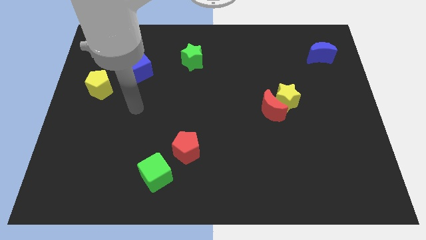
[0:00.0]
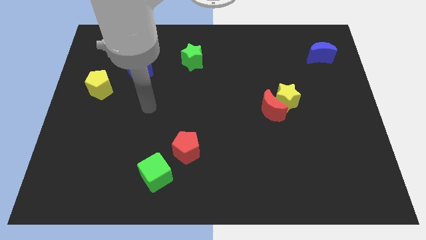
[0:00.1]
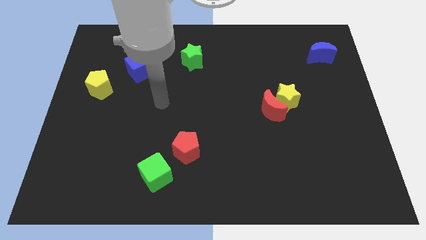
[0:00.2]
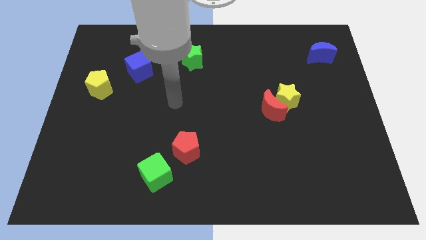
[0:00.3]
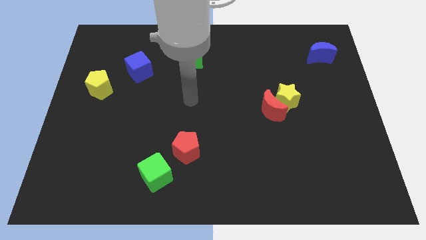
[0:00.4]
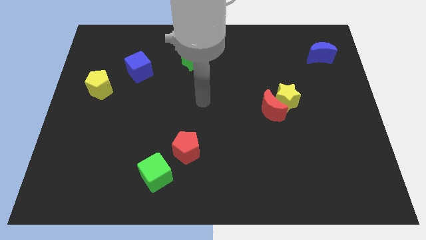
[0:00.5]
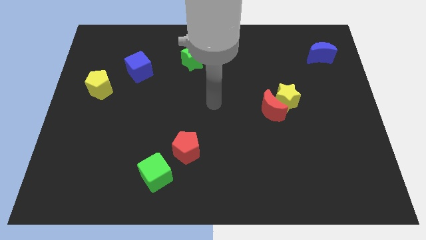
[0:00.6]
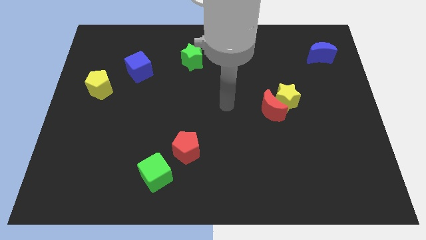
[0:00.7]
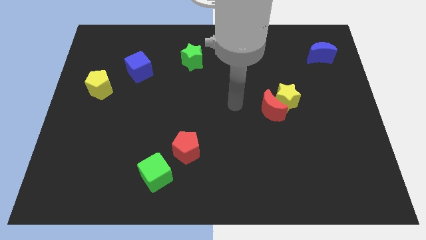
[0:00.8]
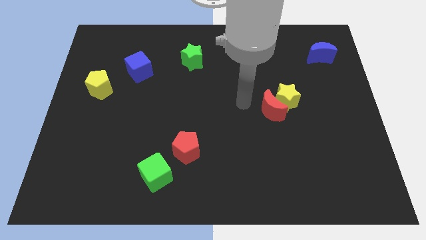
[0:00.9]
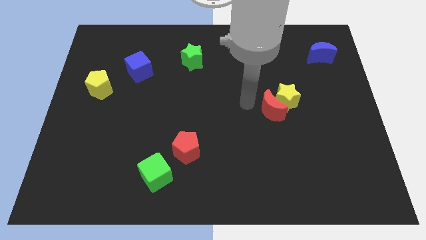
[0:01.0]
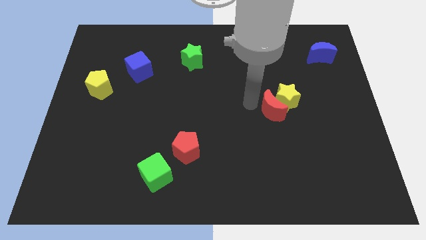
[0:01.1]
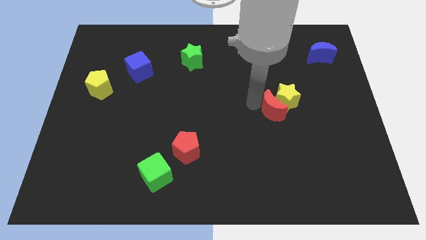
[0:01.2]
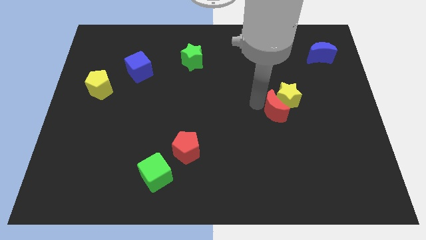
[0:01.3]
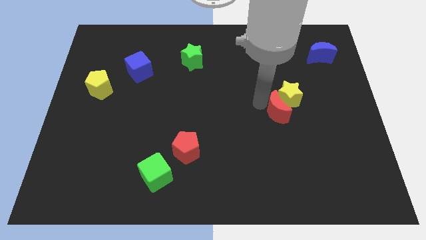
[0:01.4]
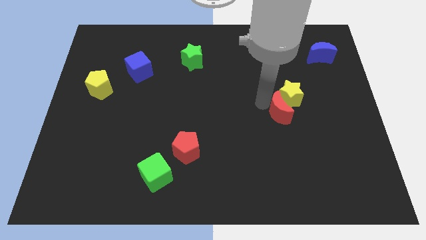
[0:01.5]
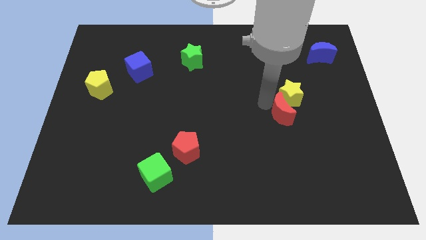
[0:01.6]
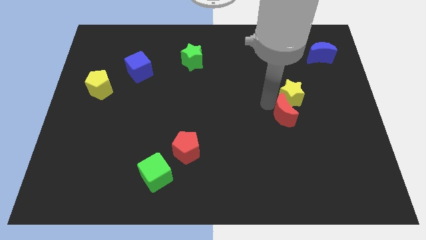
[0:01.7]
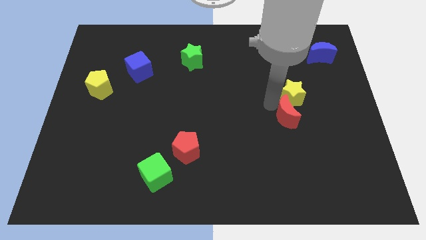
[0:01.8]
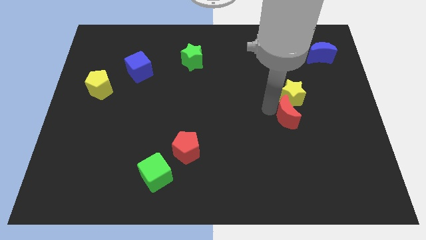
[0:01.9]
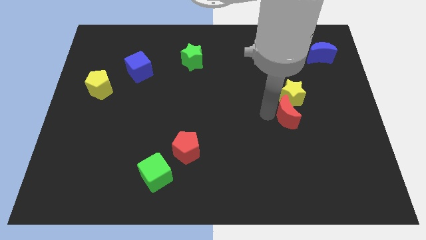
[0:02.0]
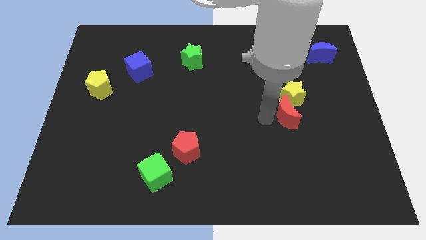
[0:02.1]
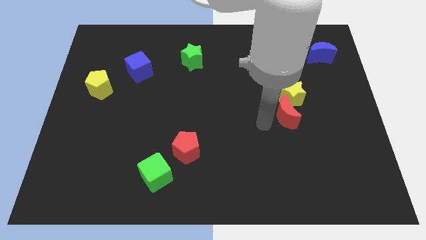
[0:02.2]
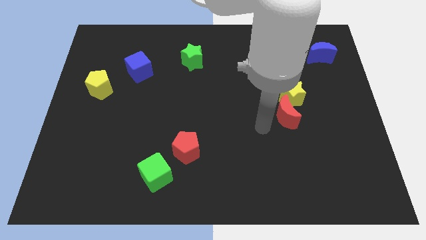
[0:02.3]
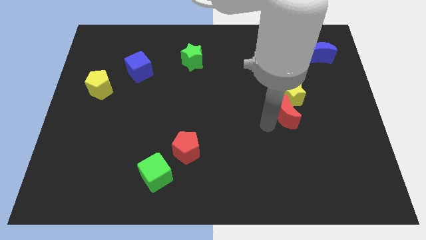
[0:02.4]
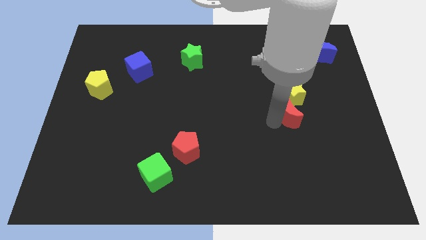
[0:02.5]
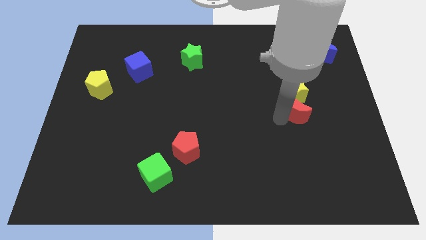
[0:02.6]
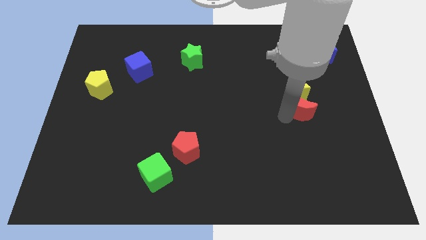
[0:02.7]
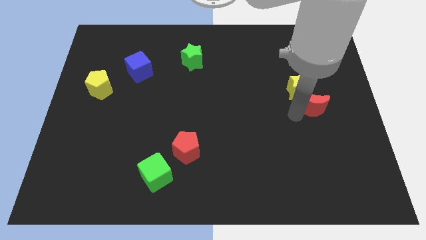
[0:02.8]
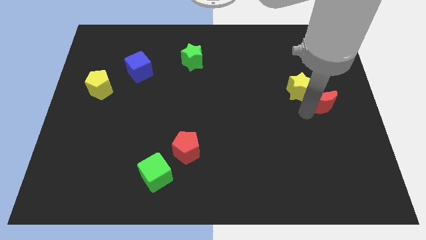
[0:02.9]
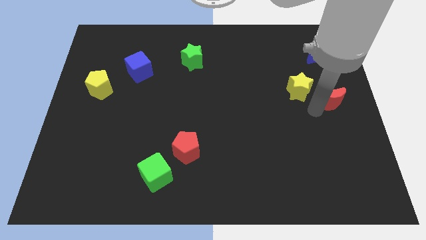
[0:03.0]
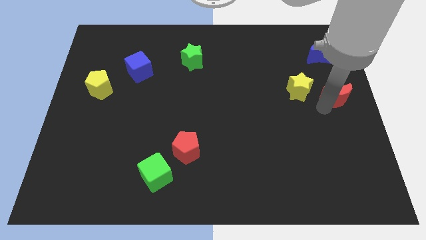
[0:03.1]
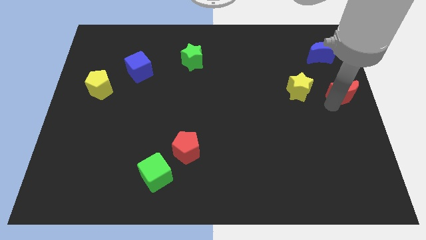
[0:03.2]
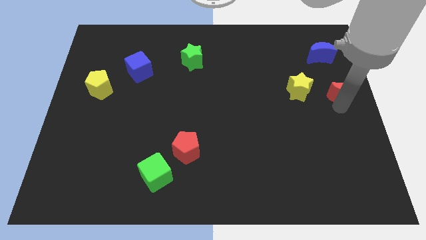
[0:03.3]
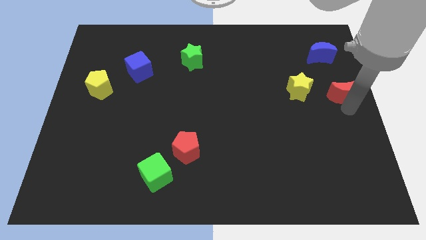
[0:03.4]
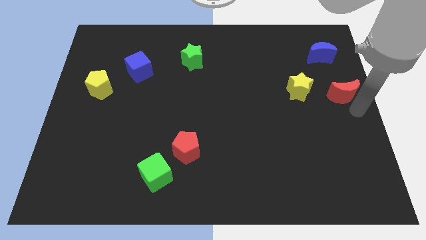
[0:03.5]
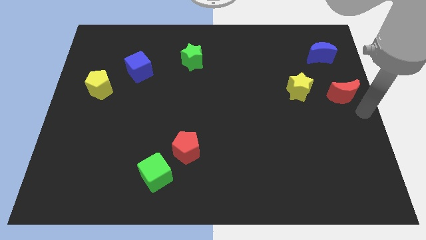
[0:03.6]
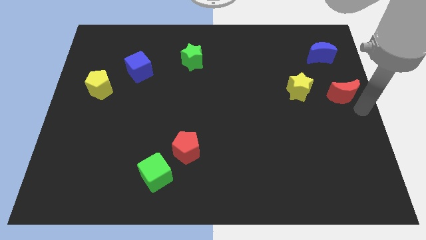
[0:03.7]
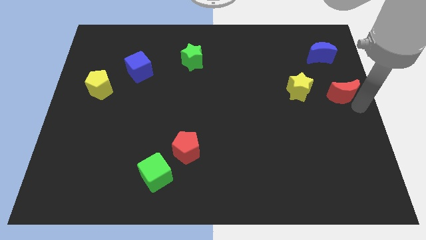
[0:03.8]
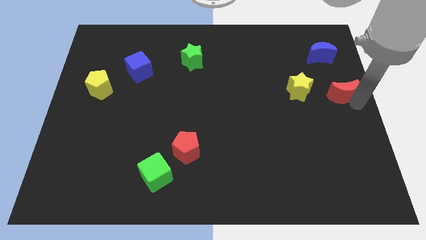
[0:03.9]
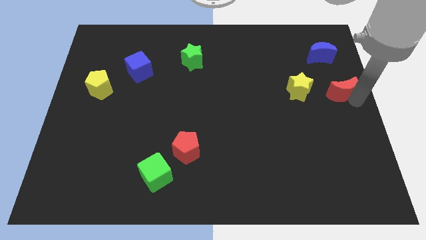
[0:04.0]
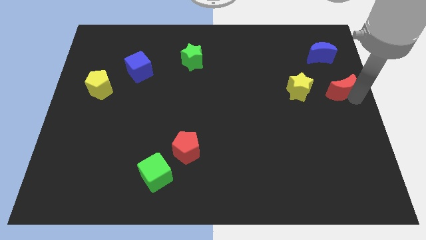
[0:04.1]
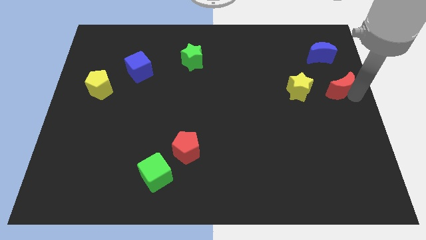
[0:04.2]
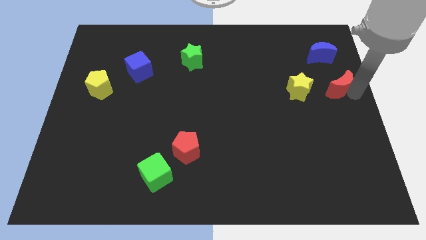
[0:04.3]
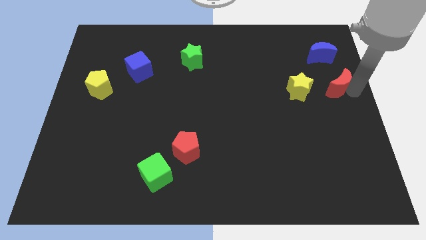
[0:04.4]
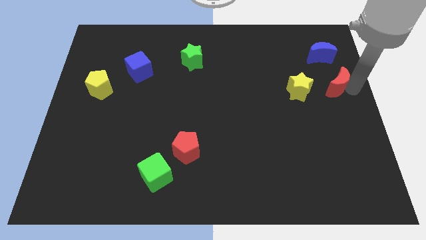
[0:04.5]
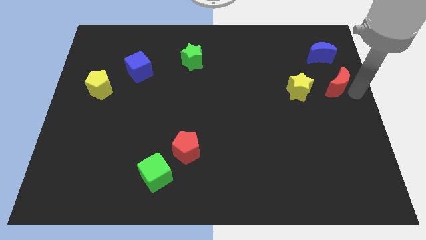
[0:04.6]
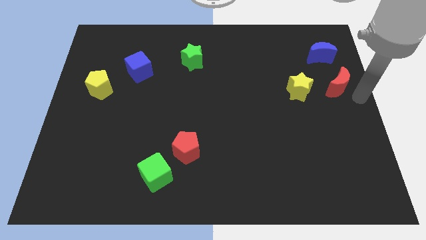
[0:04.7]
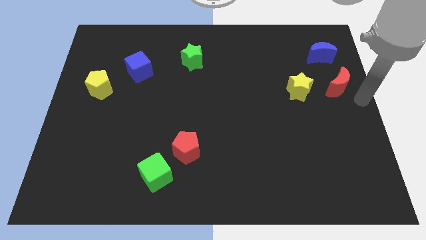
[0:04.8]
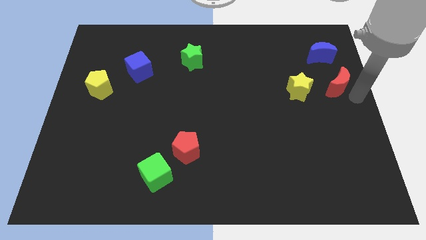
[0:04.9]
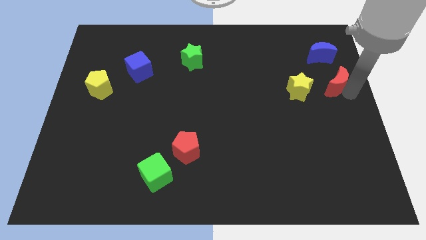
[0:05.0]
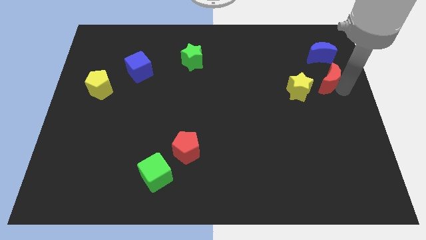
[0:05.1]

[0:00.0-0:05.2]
push the red moon diagonally up and to the right of the yellow star

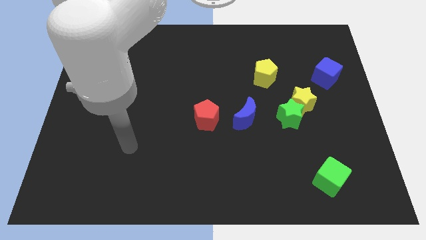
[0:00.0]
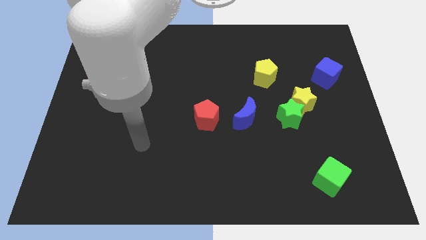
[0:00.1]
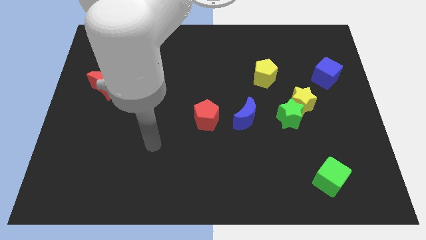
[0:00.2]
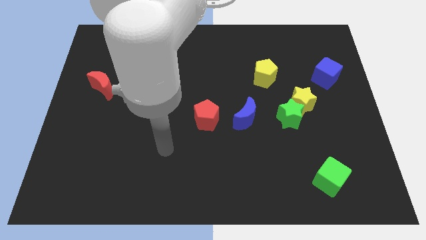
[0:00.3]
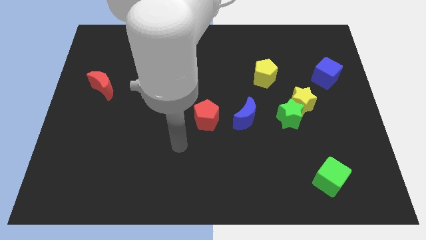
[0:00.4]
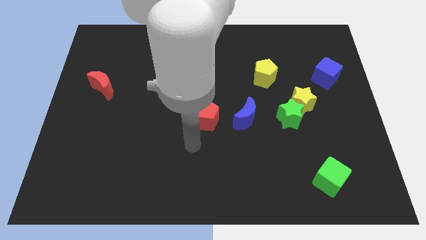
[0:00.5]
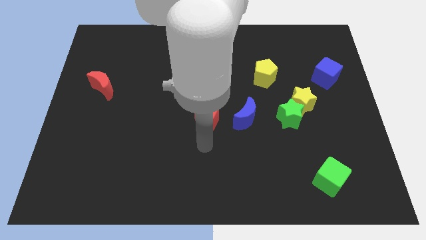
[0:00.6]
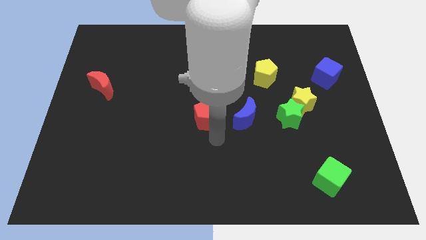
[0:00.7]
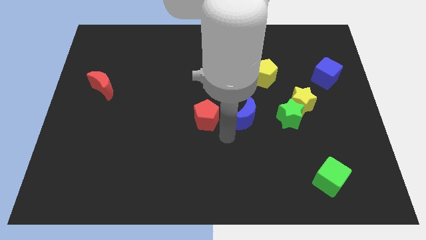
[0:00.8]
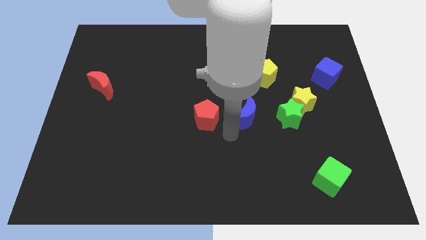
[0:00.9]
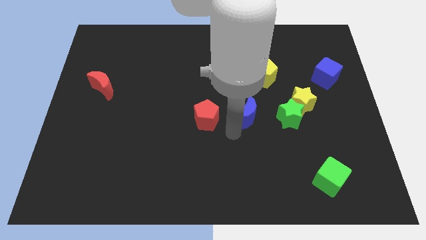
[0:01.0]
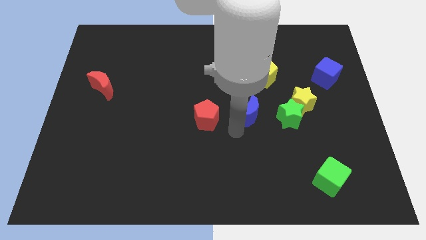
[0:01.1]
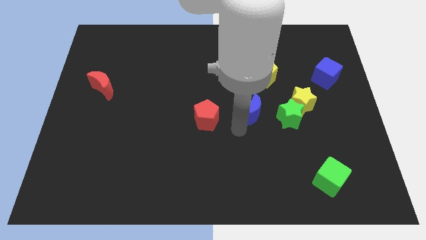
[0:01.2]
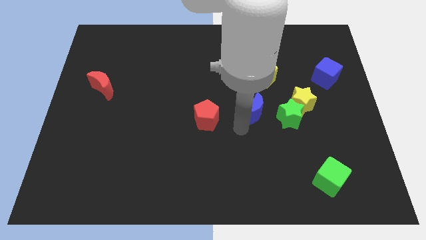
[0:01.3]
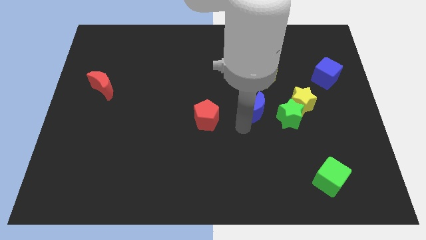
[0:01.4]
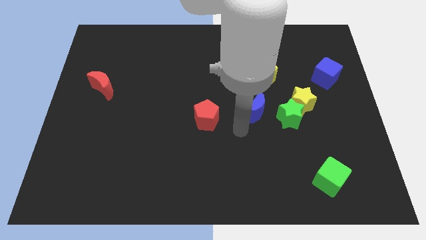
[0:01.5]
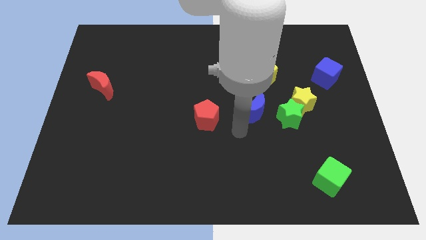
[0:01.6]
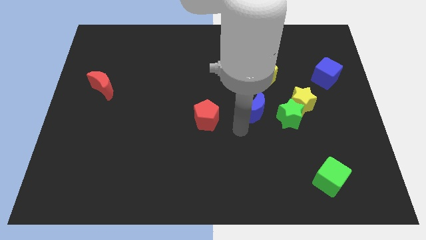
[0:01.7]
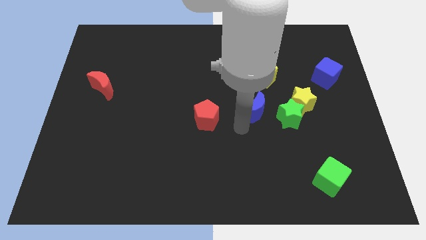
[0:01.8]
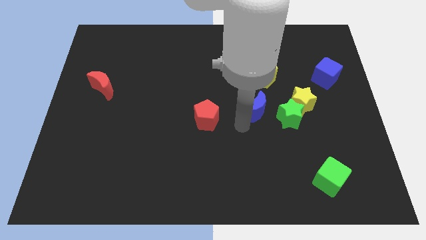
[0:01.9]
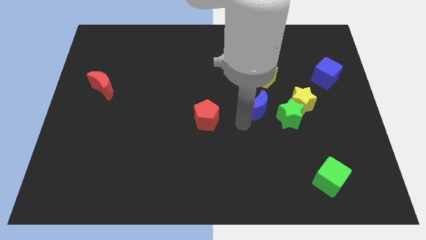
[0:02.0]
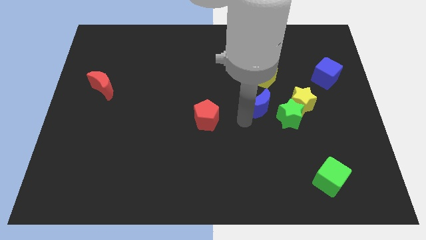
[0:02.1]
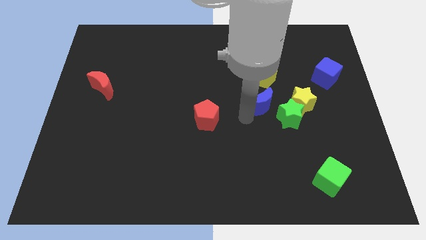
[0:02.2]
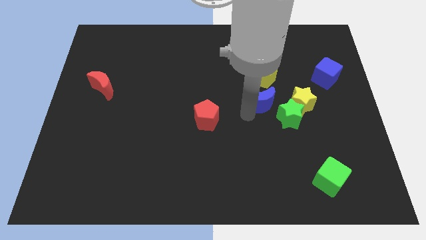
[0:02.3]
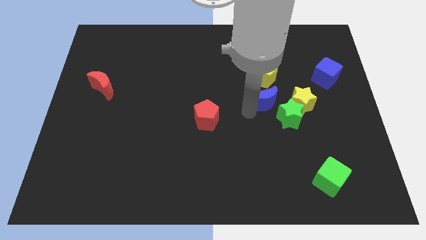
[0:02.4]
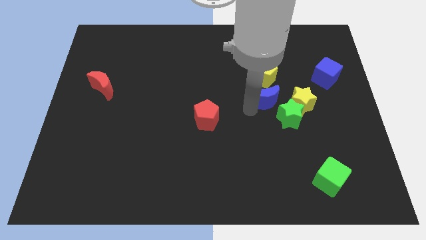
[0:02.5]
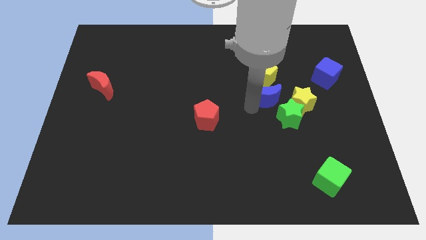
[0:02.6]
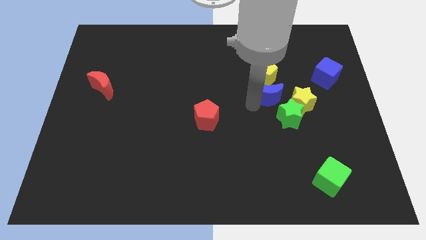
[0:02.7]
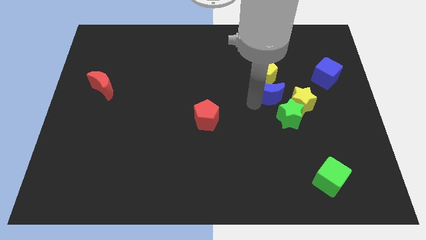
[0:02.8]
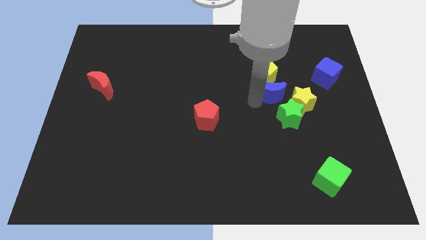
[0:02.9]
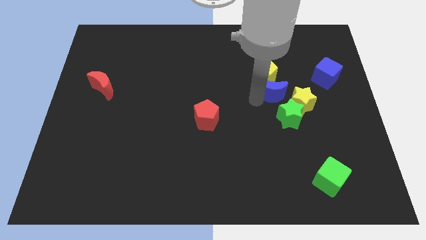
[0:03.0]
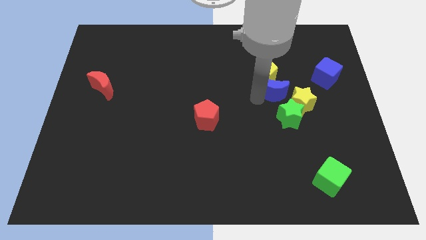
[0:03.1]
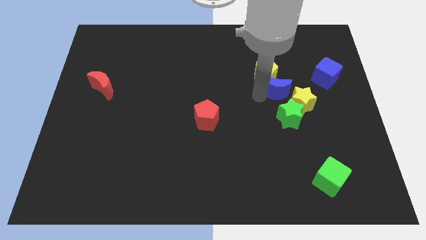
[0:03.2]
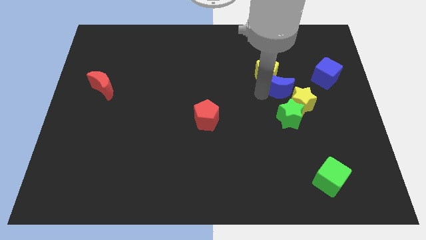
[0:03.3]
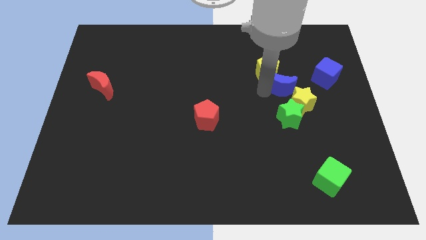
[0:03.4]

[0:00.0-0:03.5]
move the blue moon to the top of the yellow star
